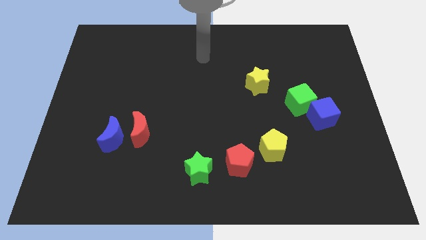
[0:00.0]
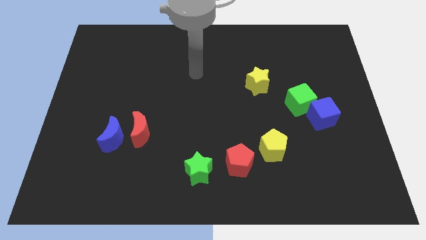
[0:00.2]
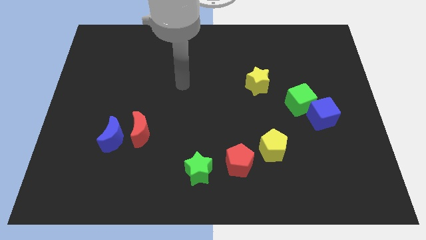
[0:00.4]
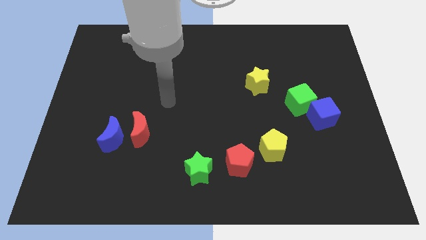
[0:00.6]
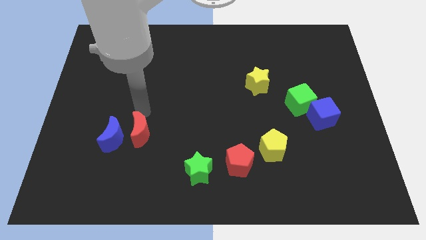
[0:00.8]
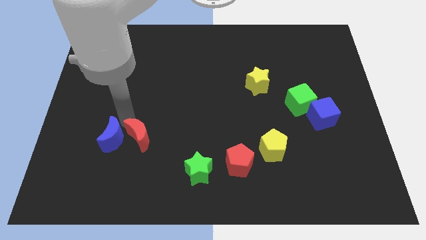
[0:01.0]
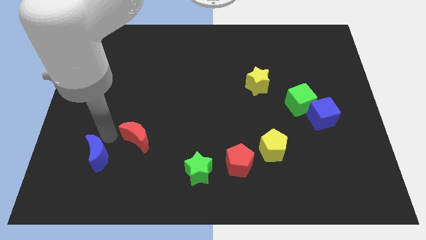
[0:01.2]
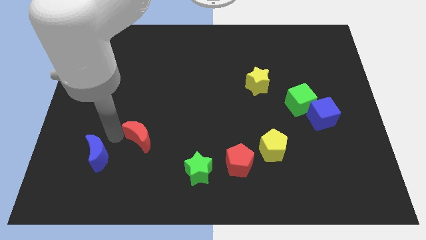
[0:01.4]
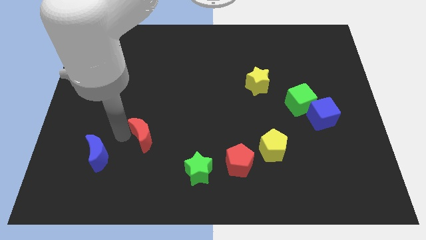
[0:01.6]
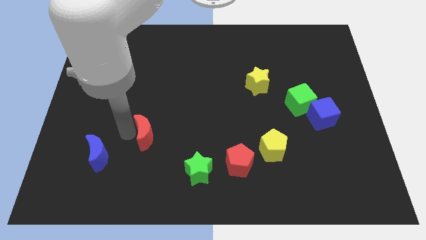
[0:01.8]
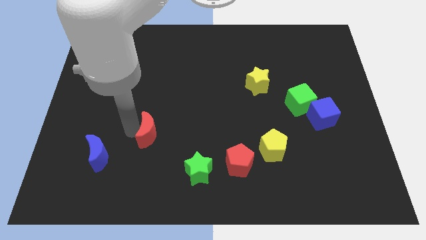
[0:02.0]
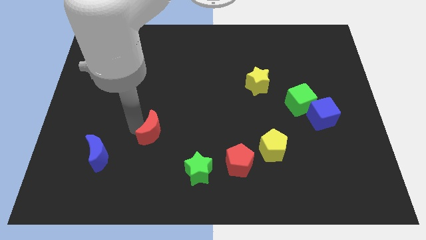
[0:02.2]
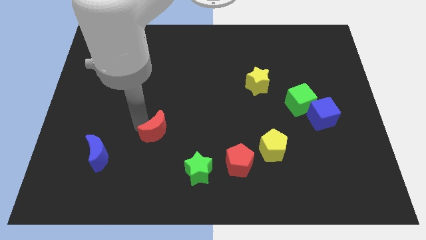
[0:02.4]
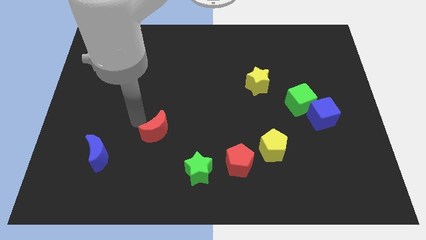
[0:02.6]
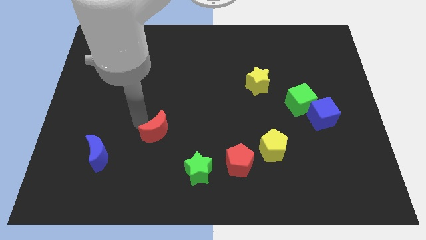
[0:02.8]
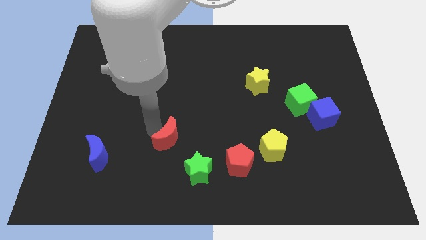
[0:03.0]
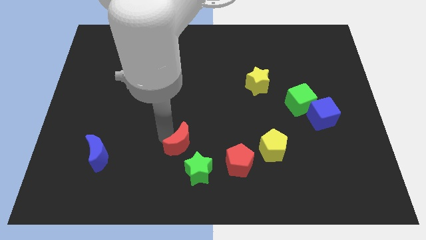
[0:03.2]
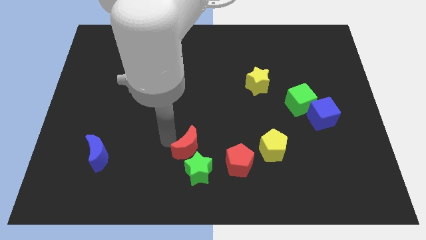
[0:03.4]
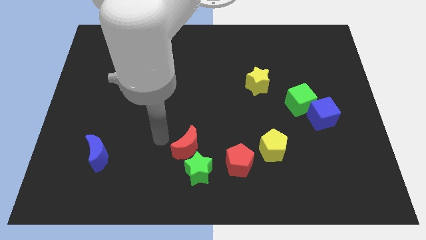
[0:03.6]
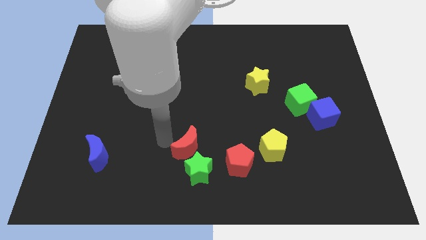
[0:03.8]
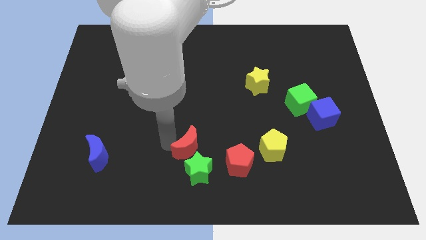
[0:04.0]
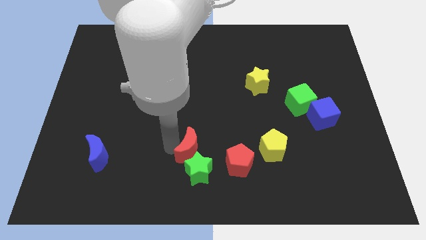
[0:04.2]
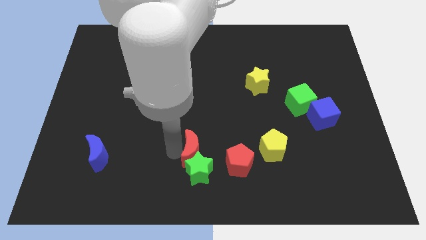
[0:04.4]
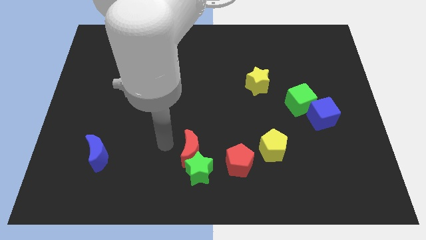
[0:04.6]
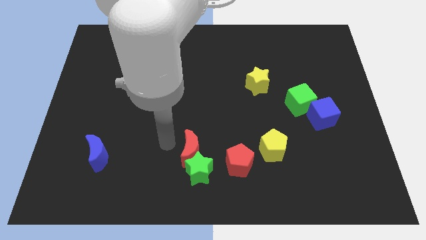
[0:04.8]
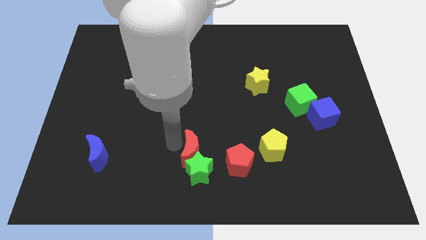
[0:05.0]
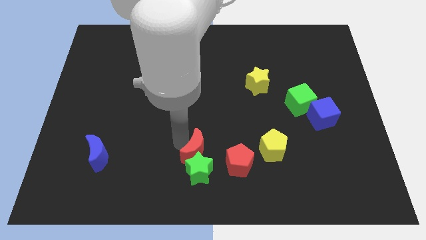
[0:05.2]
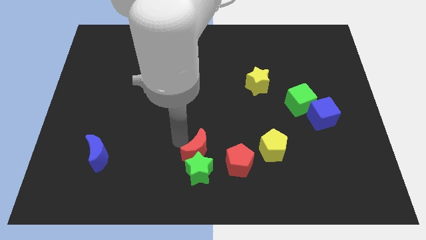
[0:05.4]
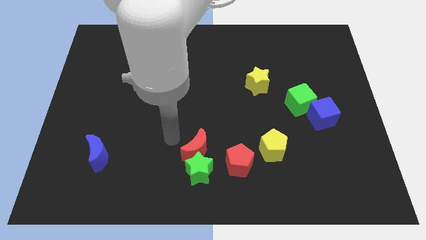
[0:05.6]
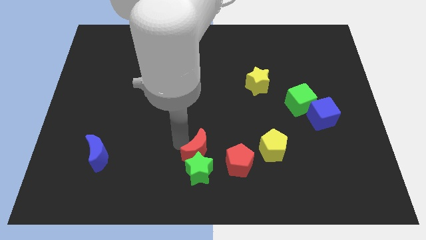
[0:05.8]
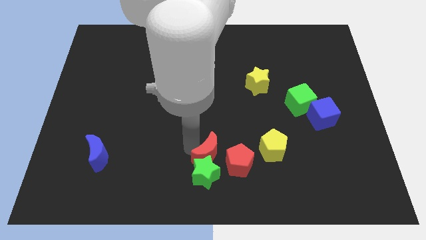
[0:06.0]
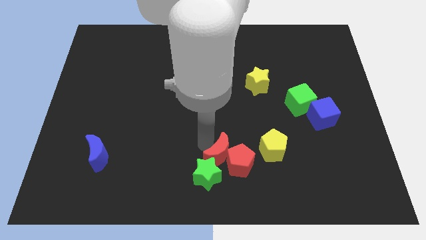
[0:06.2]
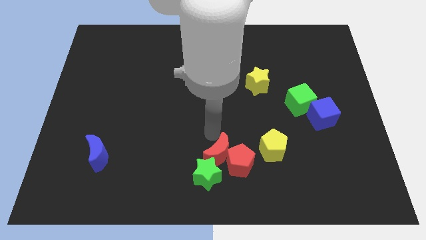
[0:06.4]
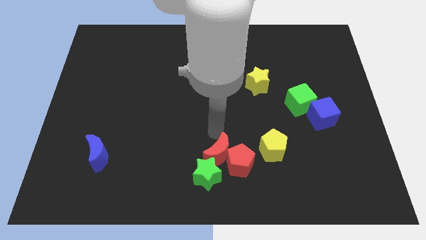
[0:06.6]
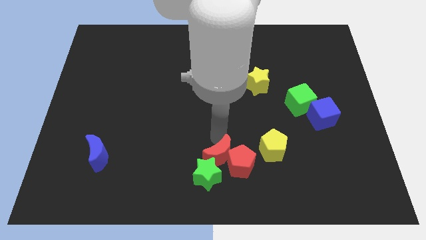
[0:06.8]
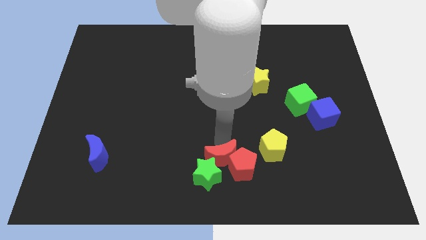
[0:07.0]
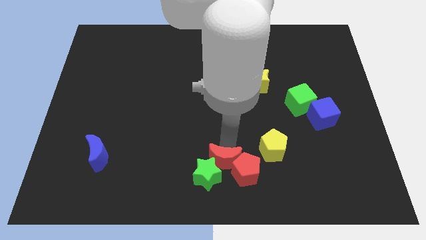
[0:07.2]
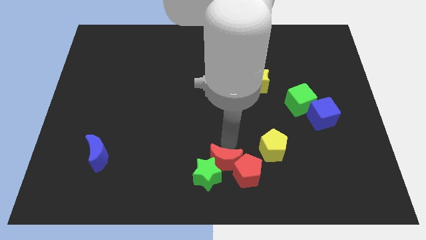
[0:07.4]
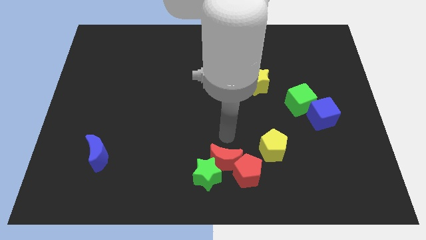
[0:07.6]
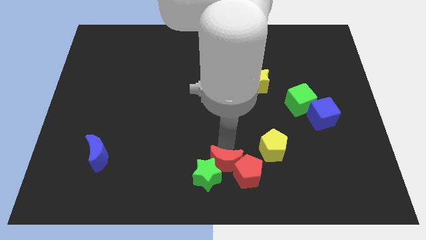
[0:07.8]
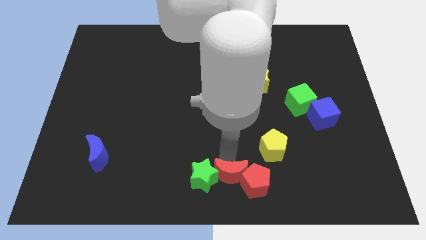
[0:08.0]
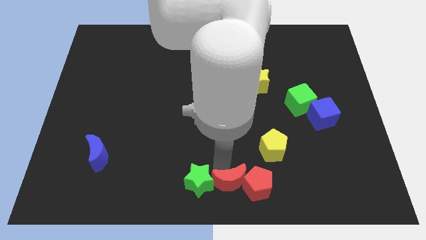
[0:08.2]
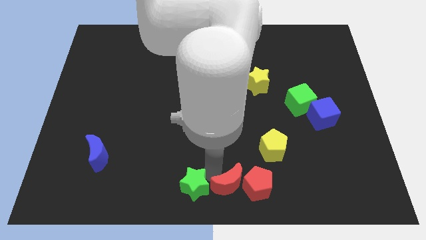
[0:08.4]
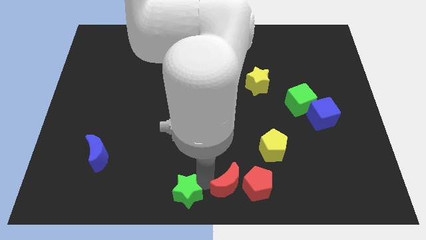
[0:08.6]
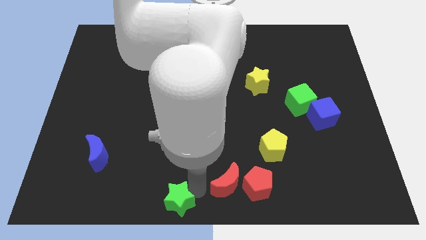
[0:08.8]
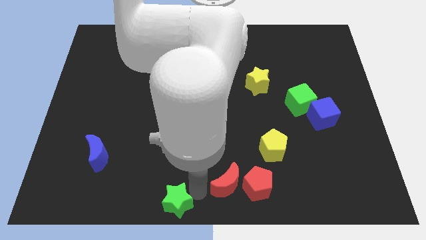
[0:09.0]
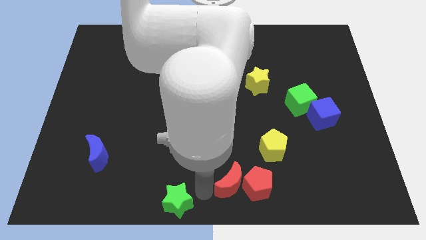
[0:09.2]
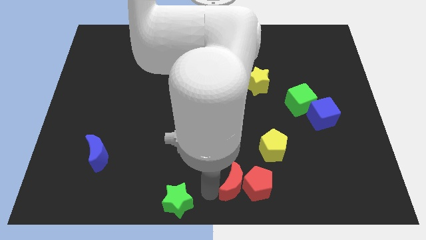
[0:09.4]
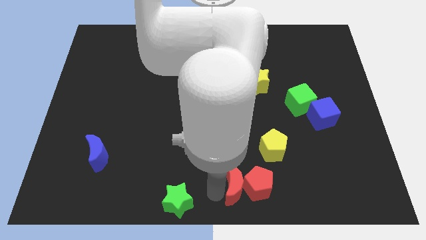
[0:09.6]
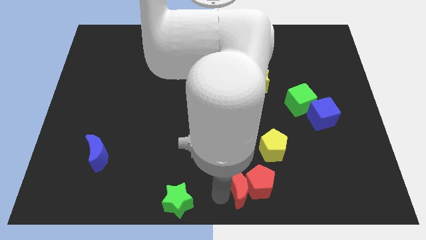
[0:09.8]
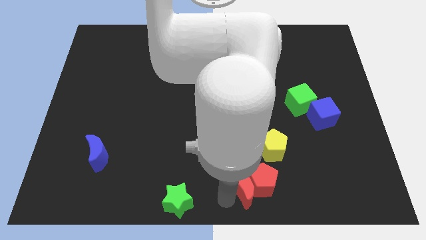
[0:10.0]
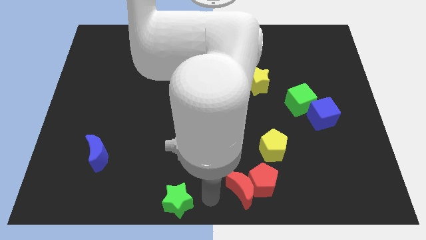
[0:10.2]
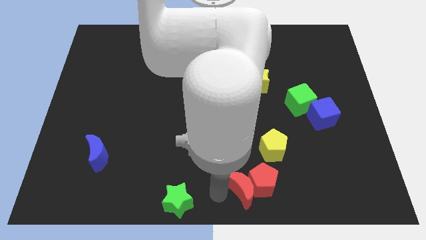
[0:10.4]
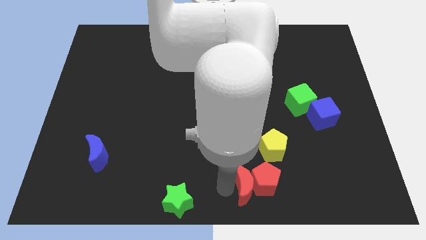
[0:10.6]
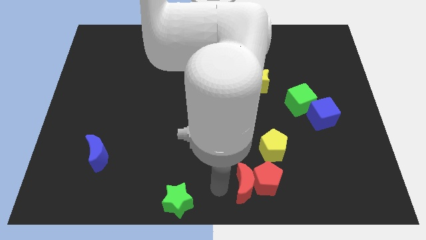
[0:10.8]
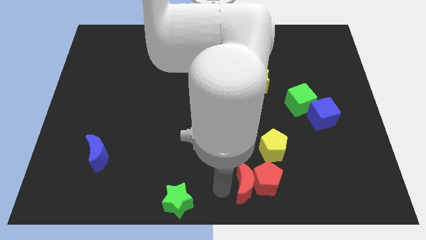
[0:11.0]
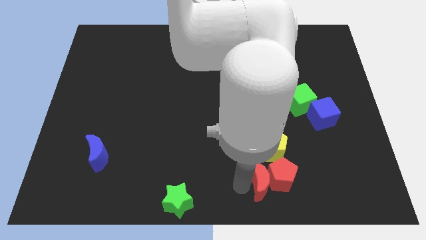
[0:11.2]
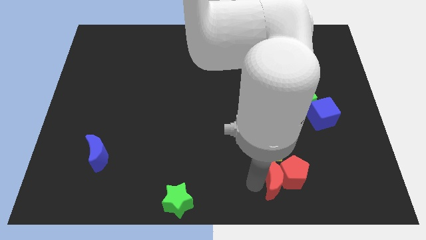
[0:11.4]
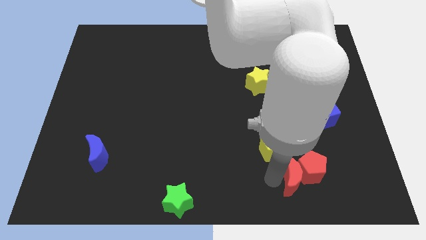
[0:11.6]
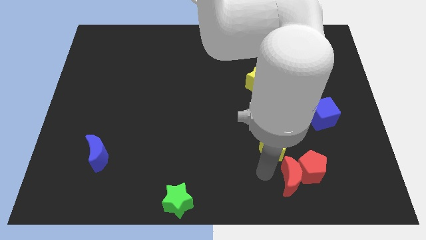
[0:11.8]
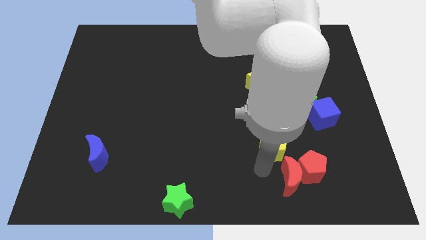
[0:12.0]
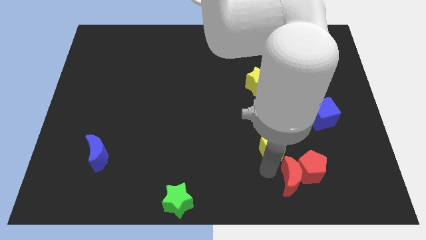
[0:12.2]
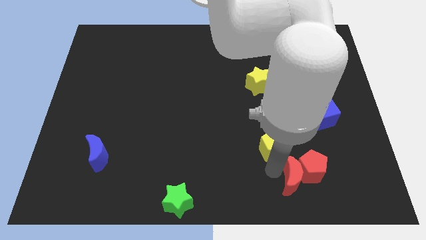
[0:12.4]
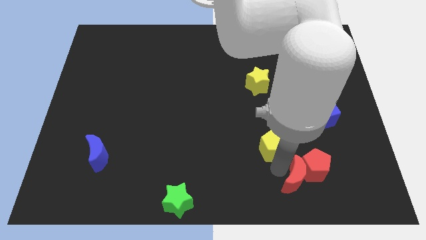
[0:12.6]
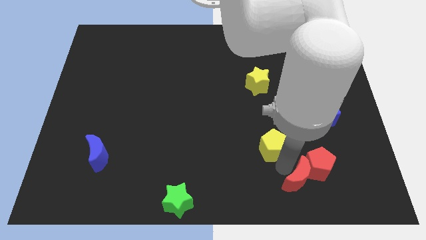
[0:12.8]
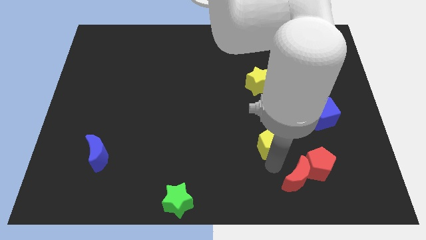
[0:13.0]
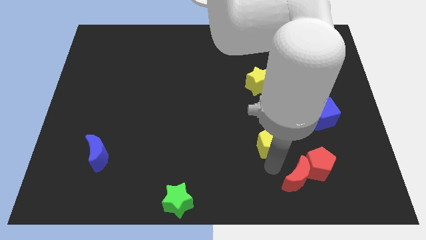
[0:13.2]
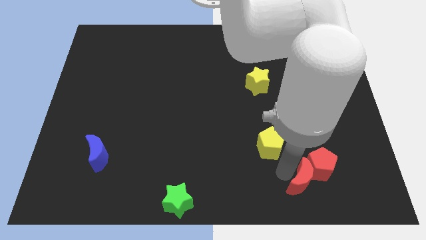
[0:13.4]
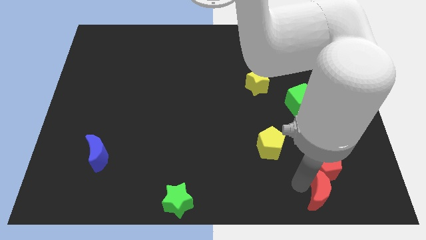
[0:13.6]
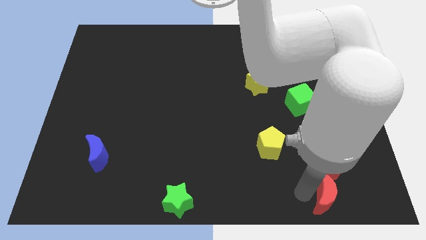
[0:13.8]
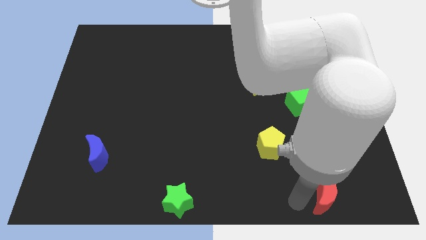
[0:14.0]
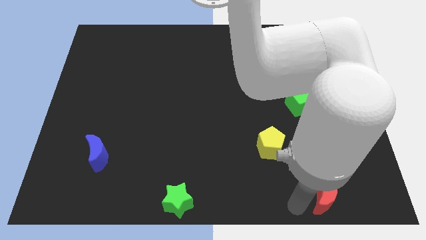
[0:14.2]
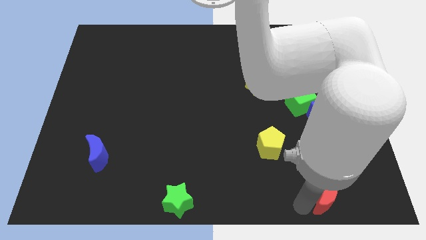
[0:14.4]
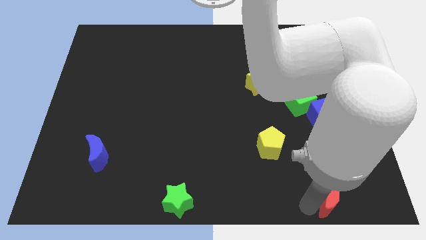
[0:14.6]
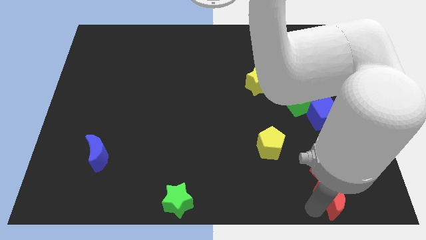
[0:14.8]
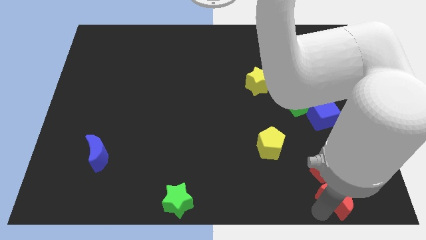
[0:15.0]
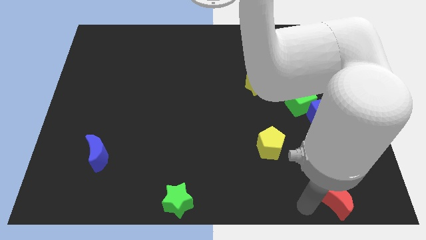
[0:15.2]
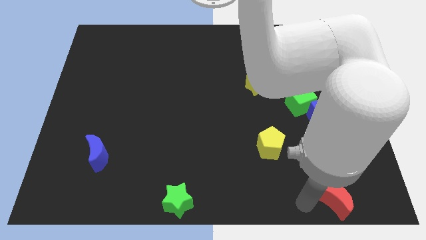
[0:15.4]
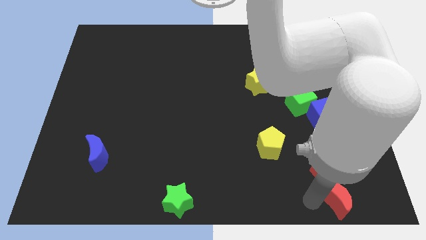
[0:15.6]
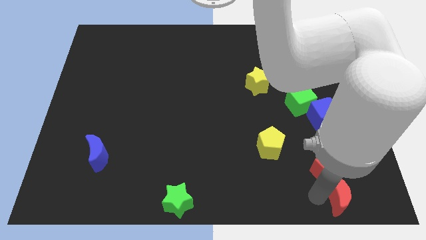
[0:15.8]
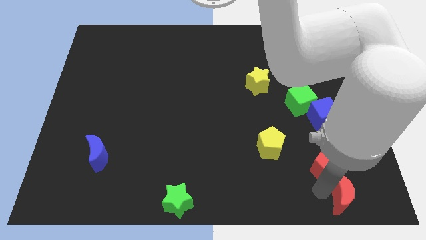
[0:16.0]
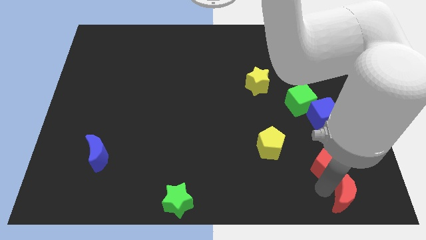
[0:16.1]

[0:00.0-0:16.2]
push the red moon to the lower right corner
